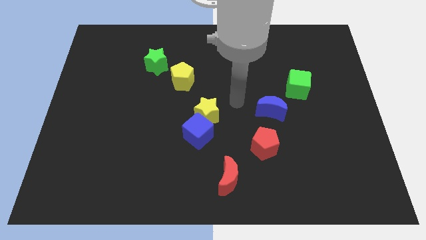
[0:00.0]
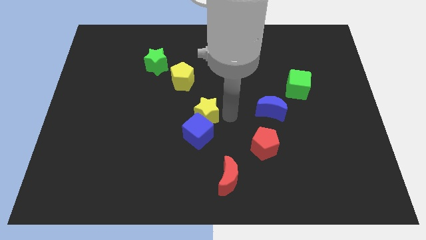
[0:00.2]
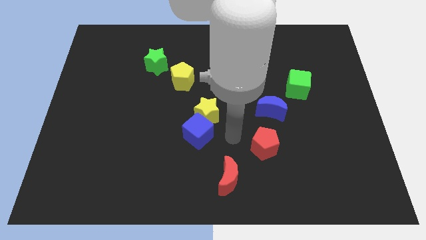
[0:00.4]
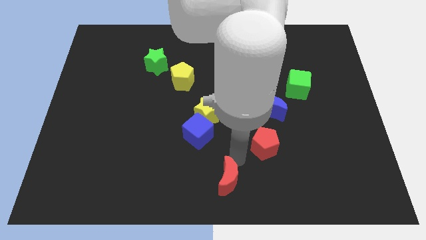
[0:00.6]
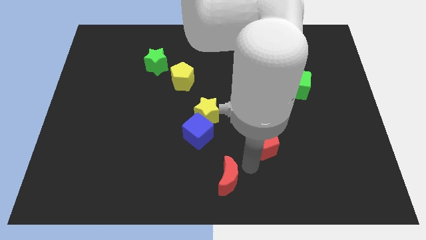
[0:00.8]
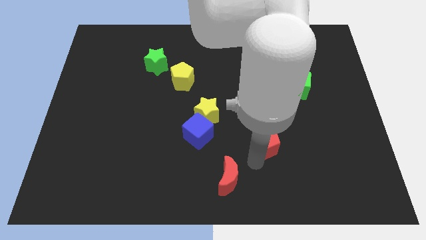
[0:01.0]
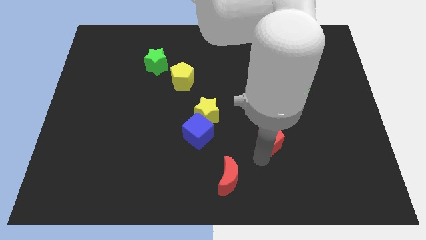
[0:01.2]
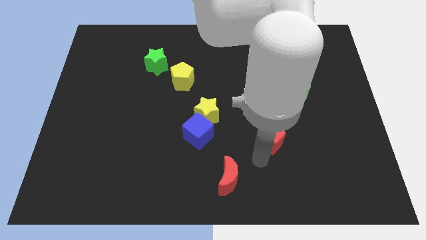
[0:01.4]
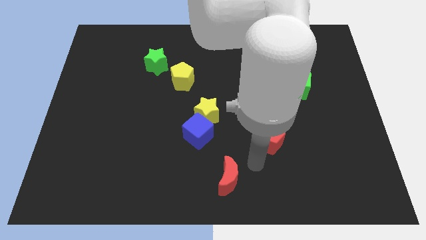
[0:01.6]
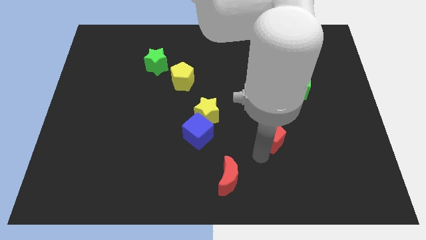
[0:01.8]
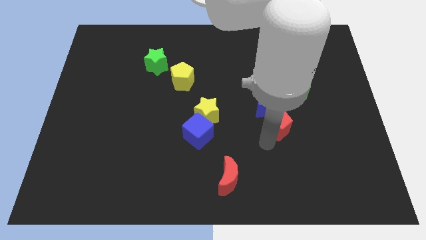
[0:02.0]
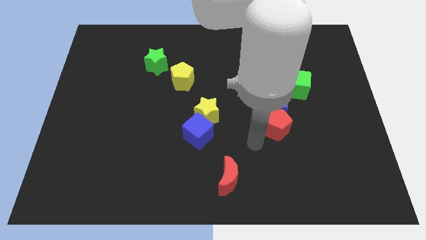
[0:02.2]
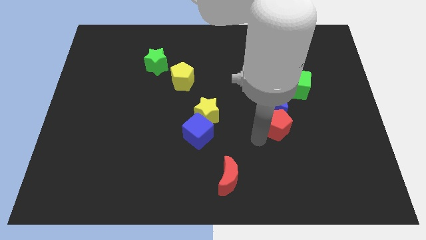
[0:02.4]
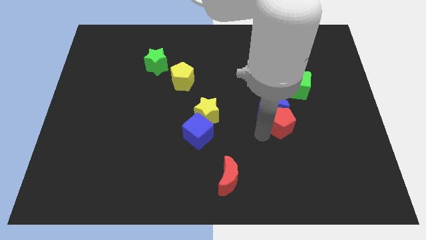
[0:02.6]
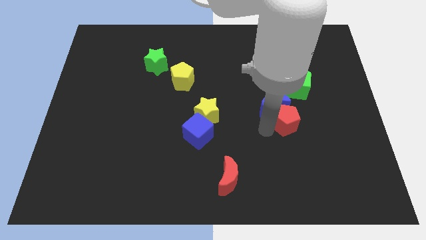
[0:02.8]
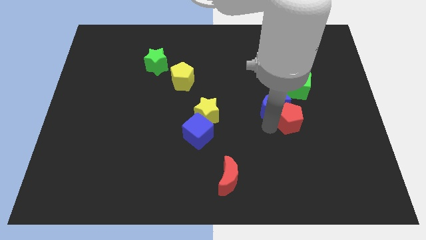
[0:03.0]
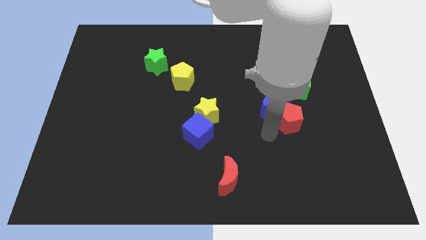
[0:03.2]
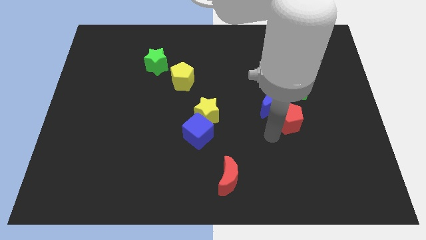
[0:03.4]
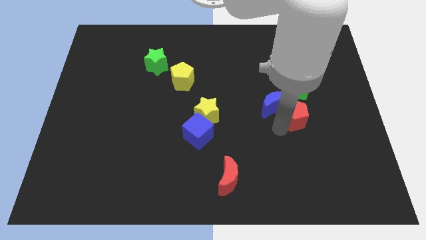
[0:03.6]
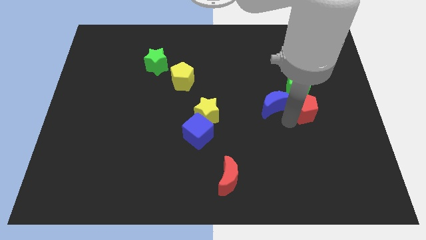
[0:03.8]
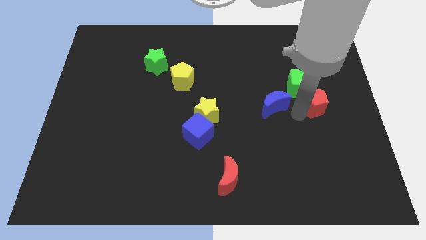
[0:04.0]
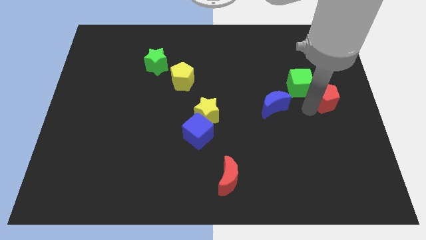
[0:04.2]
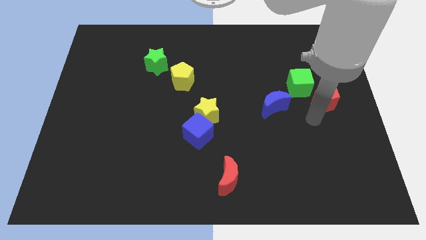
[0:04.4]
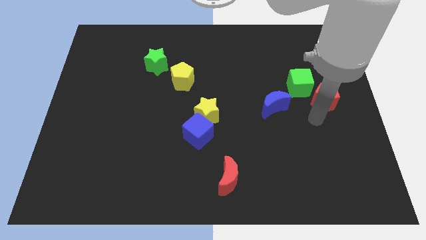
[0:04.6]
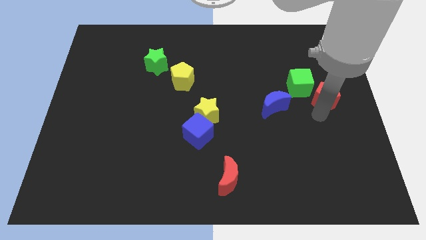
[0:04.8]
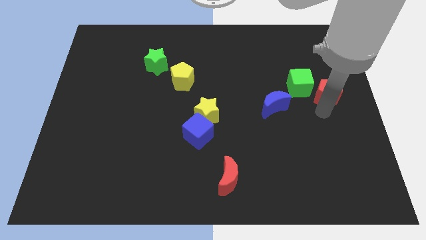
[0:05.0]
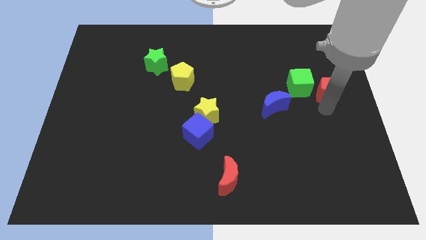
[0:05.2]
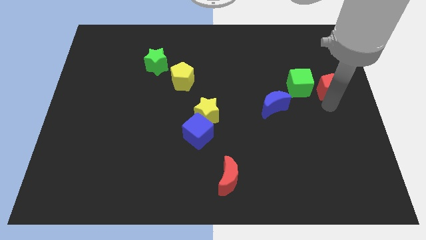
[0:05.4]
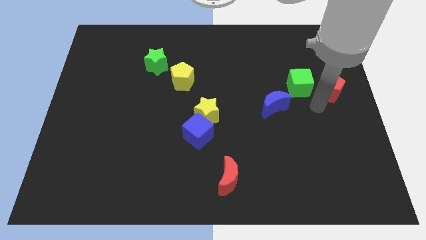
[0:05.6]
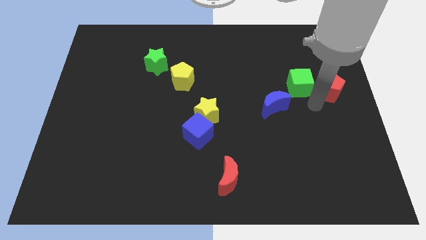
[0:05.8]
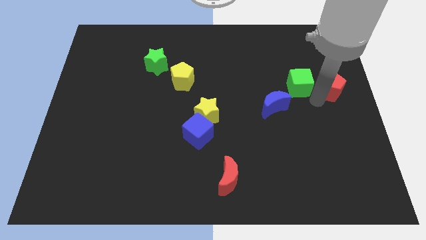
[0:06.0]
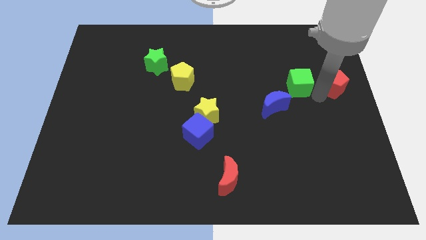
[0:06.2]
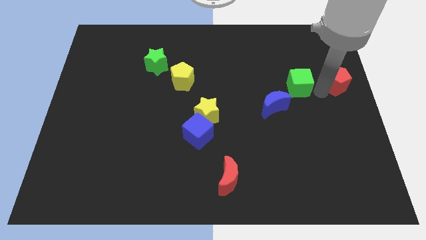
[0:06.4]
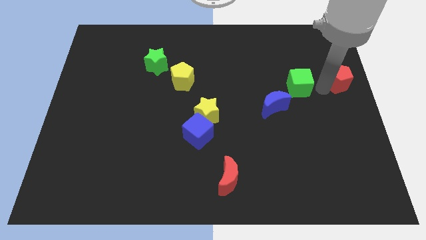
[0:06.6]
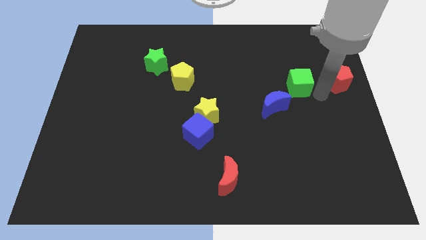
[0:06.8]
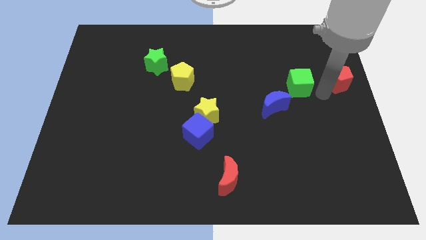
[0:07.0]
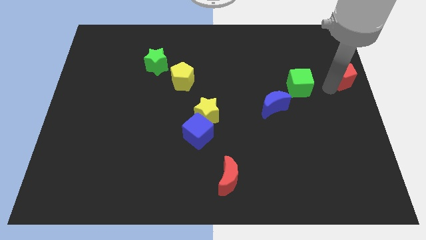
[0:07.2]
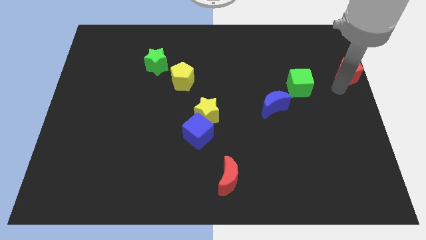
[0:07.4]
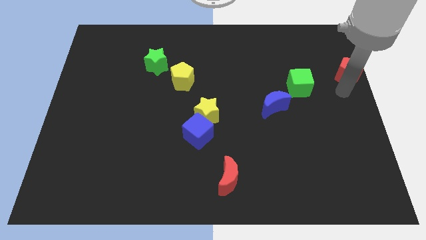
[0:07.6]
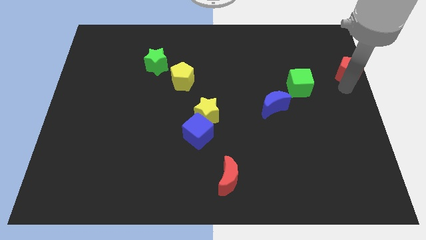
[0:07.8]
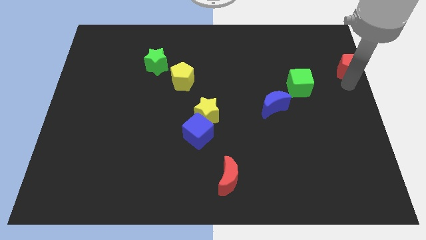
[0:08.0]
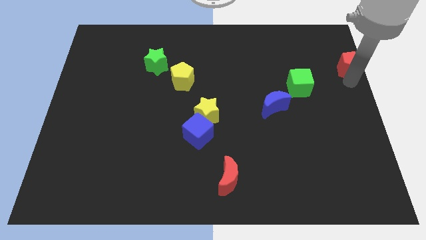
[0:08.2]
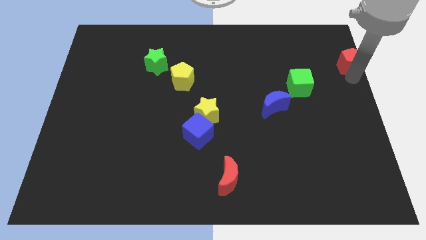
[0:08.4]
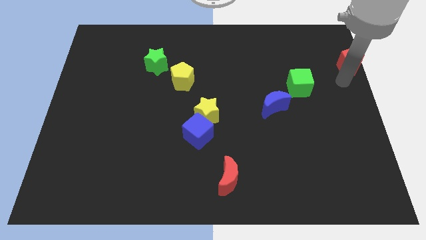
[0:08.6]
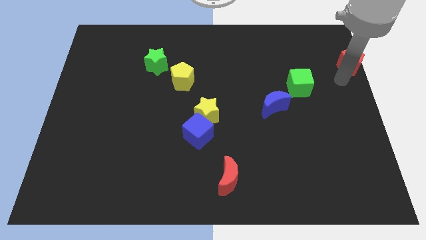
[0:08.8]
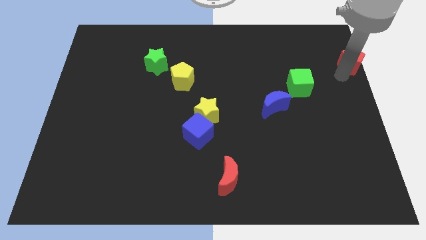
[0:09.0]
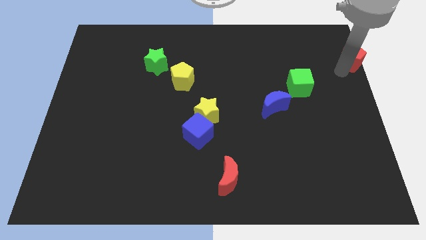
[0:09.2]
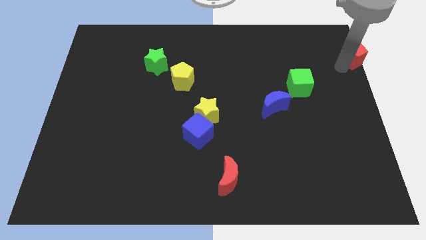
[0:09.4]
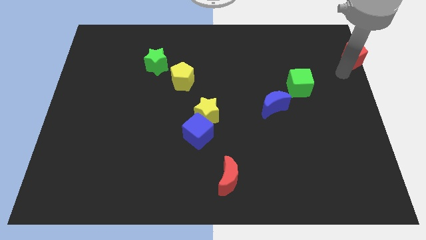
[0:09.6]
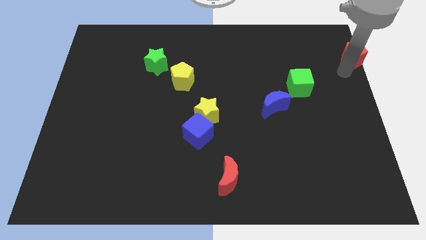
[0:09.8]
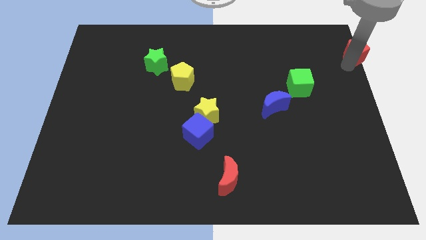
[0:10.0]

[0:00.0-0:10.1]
slide the red pentagon to the top right

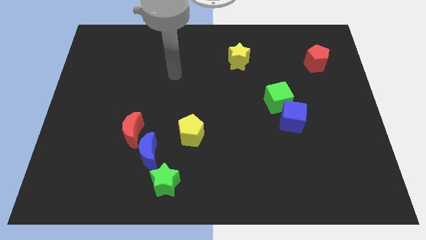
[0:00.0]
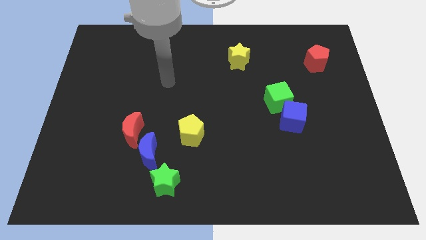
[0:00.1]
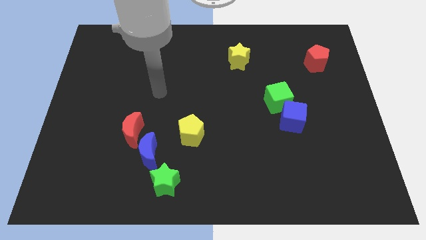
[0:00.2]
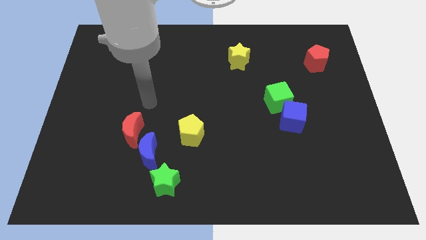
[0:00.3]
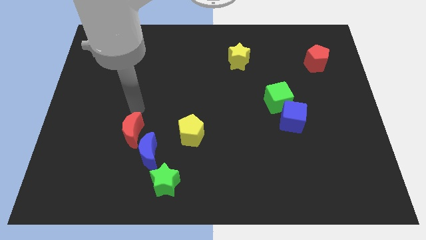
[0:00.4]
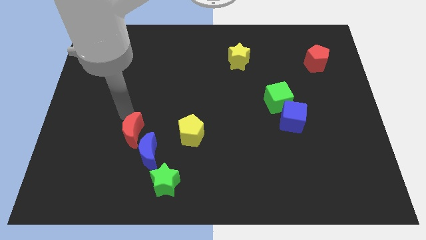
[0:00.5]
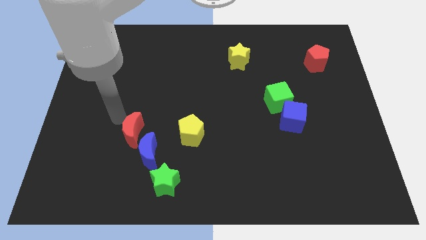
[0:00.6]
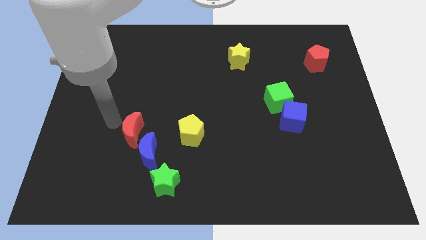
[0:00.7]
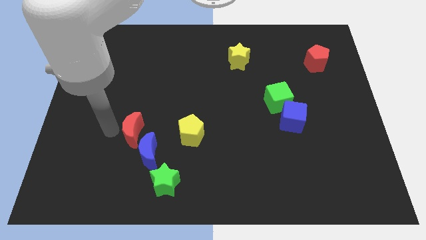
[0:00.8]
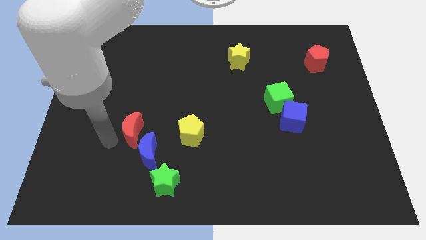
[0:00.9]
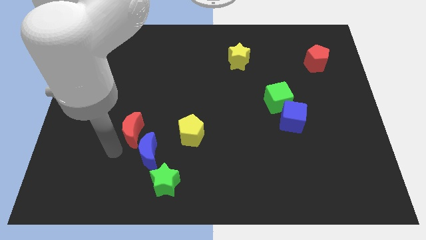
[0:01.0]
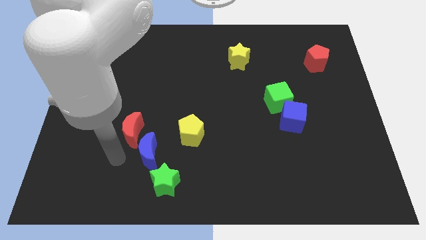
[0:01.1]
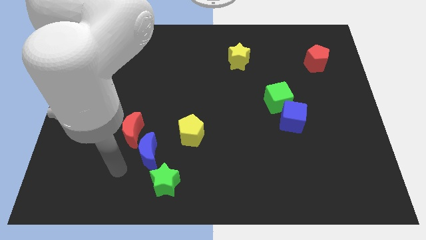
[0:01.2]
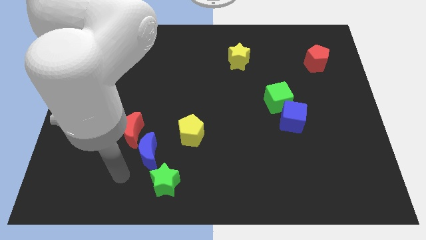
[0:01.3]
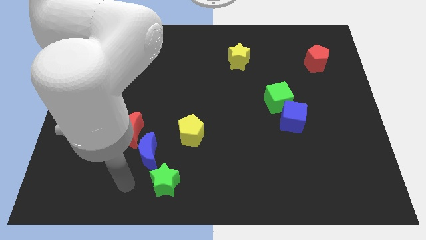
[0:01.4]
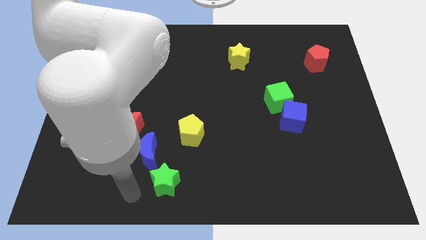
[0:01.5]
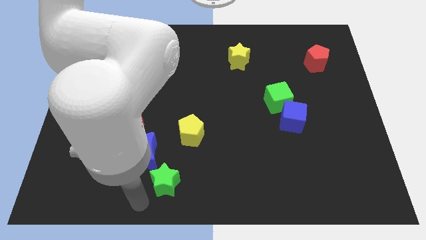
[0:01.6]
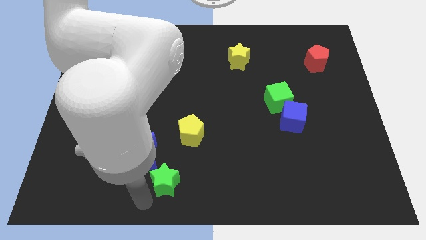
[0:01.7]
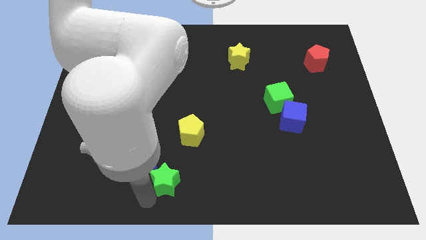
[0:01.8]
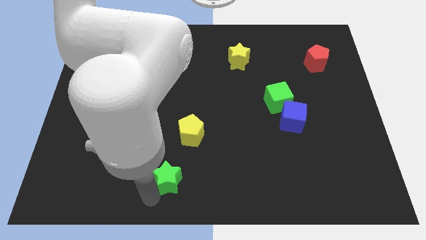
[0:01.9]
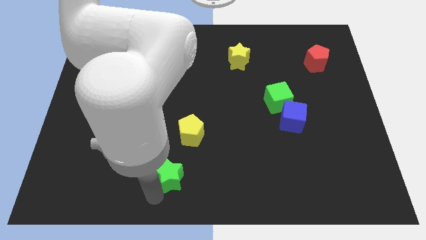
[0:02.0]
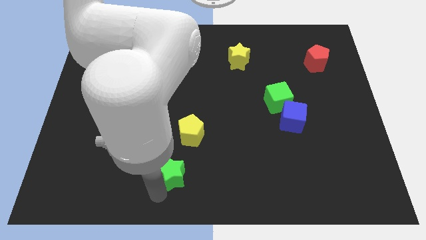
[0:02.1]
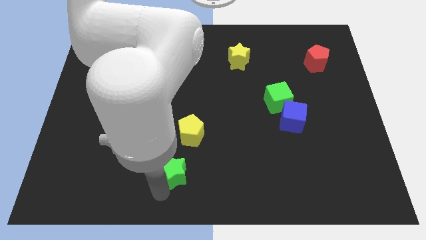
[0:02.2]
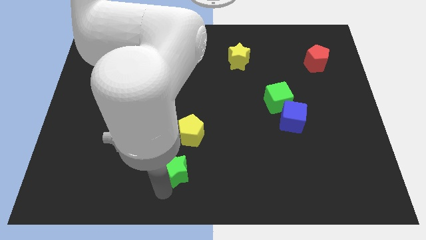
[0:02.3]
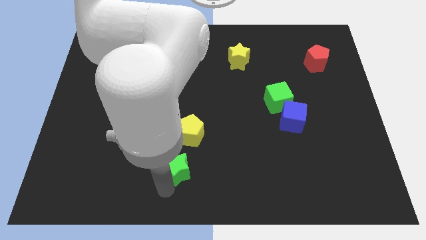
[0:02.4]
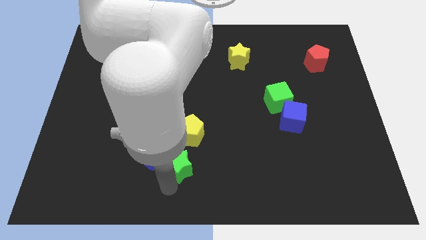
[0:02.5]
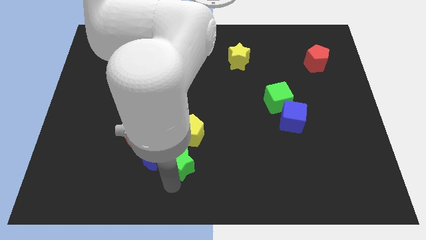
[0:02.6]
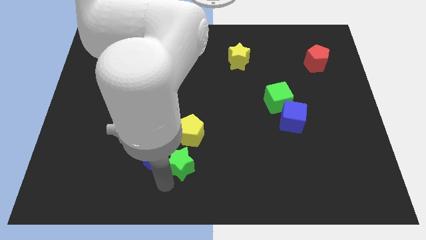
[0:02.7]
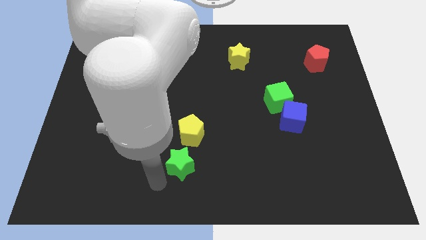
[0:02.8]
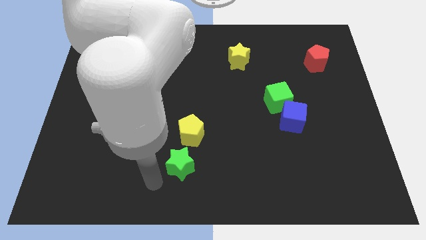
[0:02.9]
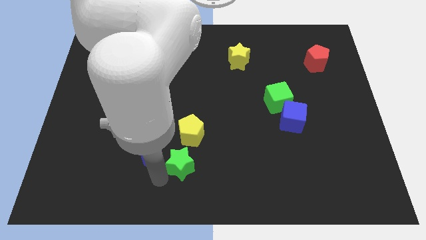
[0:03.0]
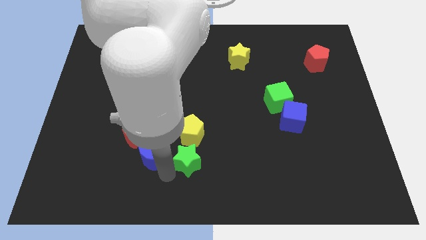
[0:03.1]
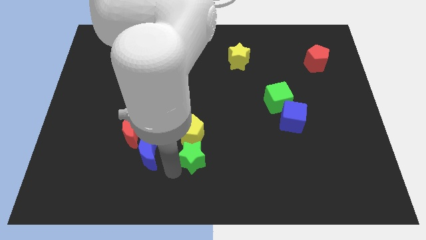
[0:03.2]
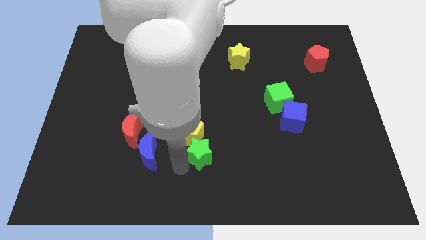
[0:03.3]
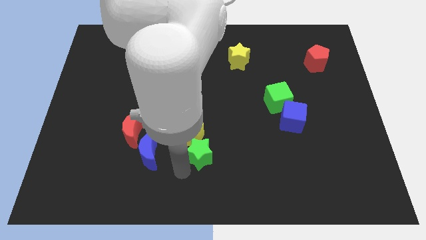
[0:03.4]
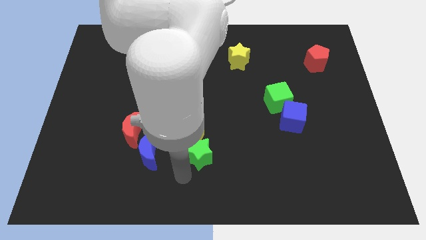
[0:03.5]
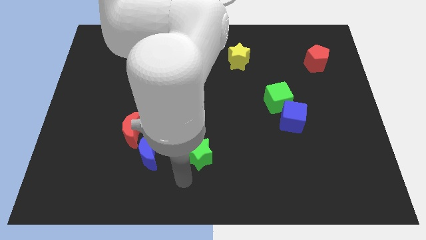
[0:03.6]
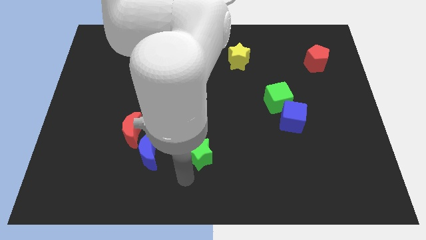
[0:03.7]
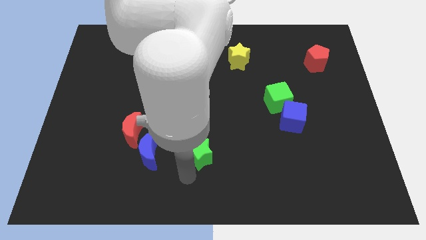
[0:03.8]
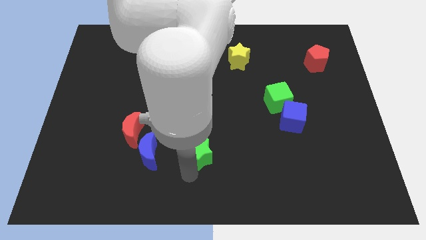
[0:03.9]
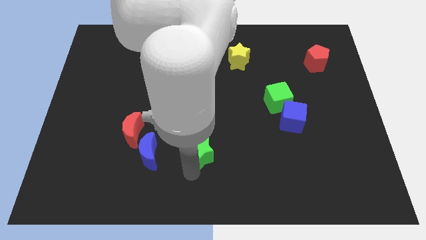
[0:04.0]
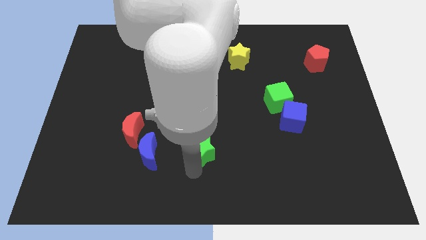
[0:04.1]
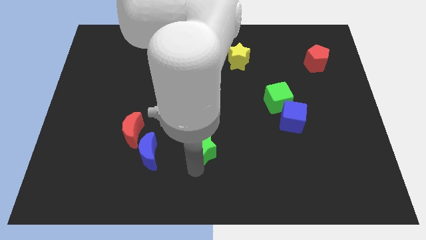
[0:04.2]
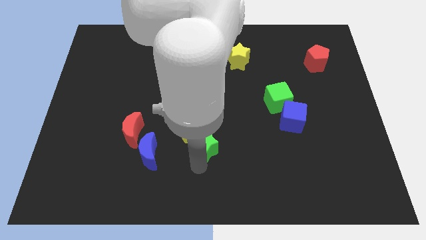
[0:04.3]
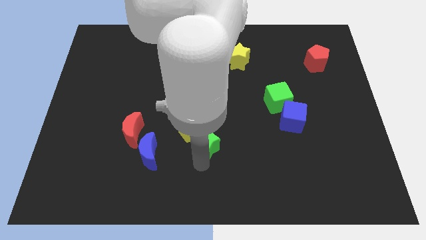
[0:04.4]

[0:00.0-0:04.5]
push the green star to the middle
